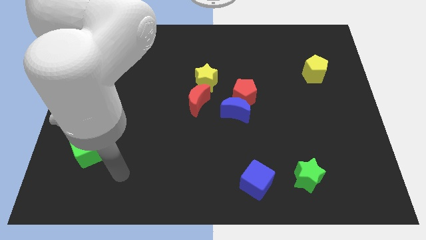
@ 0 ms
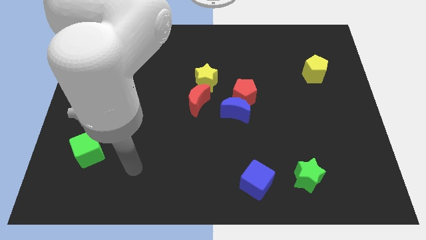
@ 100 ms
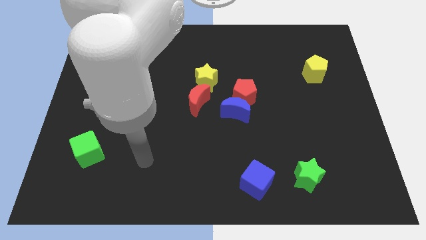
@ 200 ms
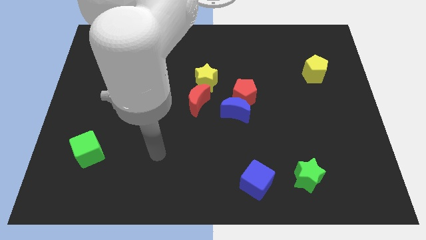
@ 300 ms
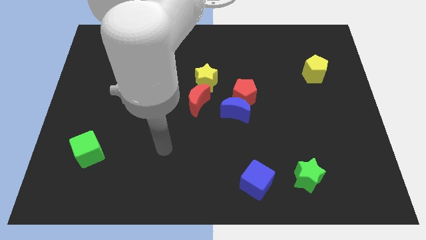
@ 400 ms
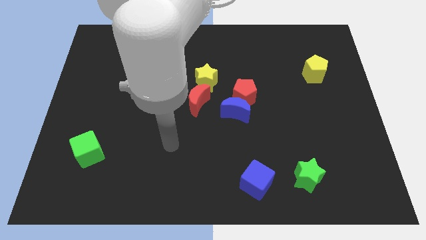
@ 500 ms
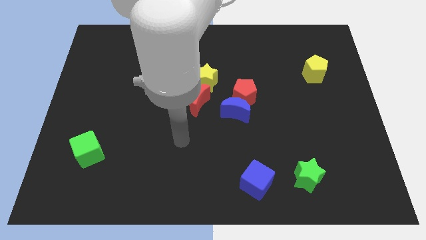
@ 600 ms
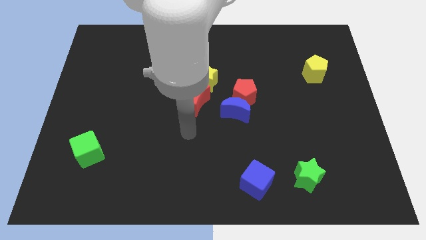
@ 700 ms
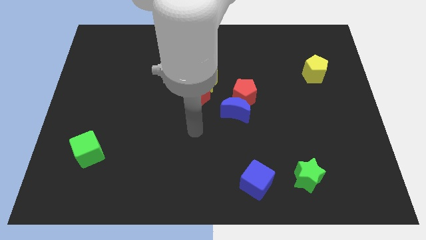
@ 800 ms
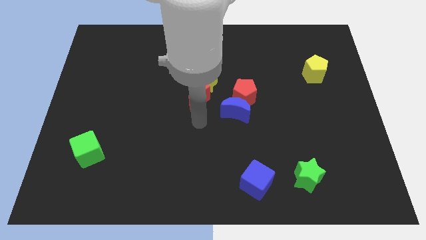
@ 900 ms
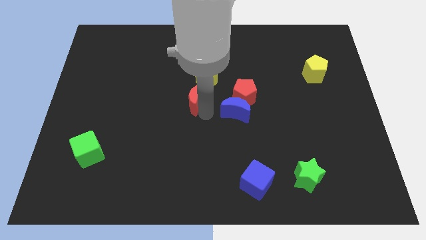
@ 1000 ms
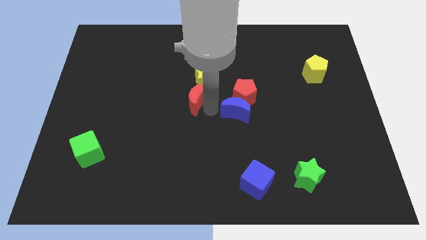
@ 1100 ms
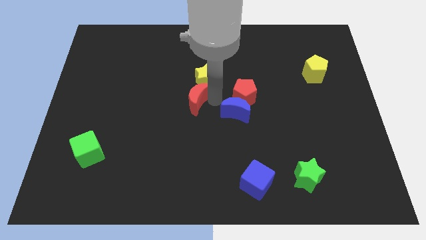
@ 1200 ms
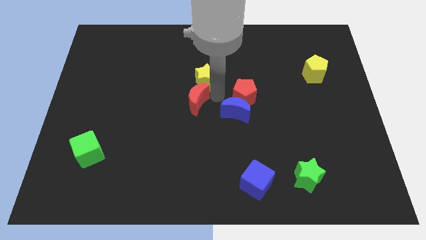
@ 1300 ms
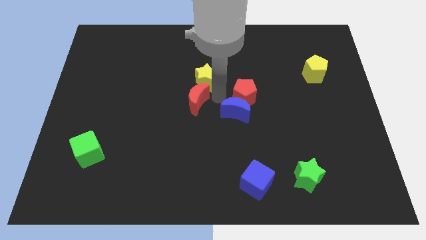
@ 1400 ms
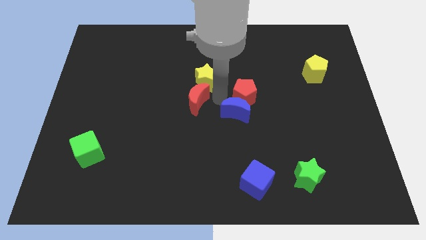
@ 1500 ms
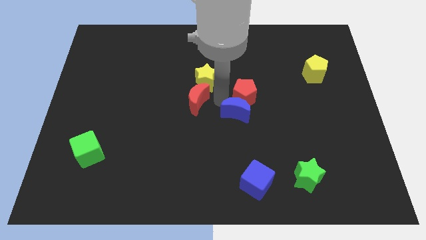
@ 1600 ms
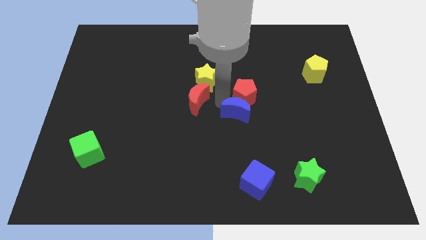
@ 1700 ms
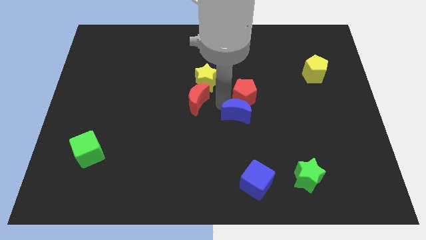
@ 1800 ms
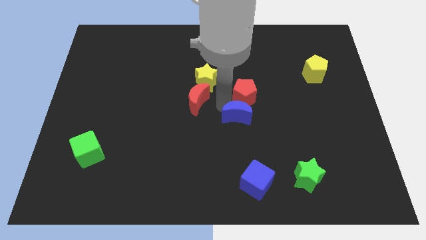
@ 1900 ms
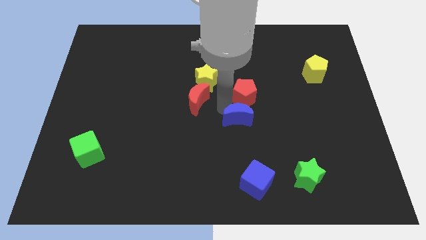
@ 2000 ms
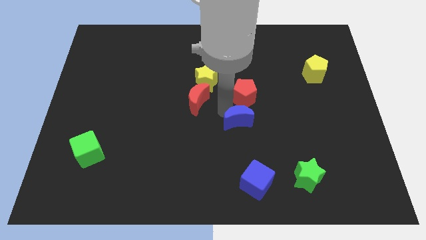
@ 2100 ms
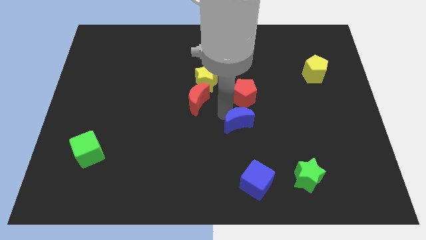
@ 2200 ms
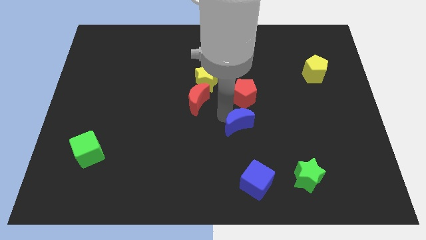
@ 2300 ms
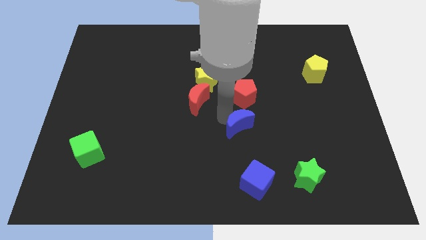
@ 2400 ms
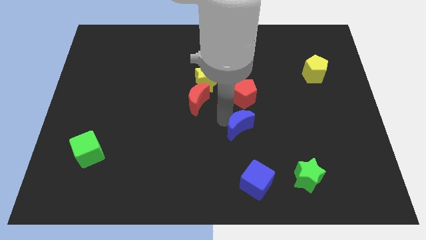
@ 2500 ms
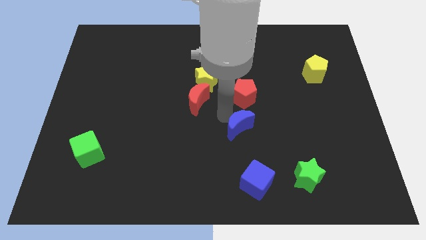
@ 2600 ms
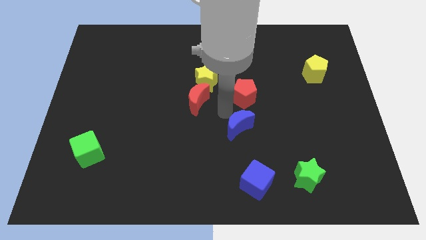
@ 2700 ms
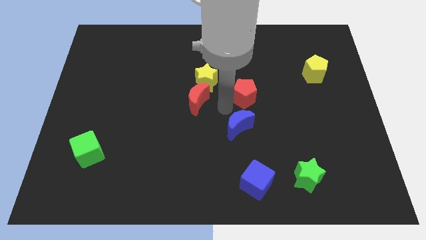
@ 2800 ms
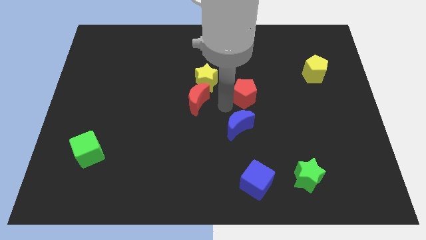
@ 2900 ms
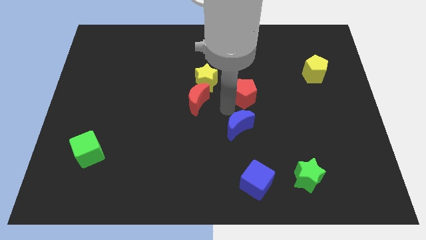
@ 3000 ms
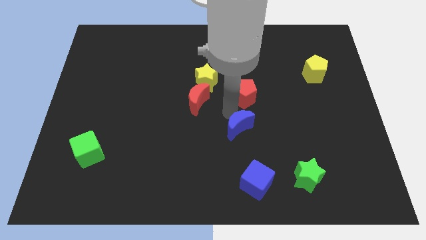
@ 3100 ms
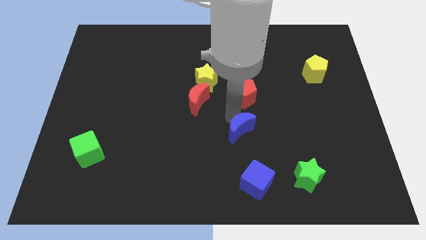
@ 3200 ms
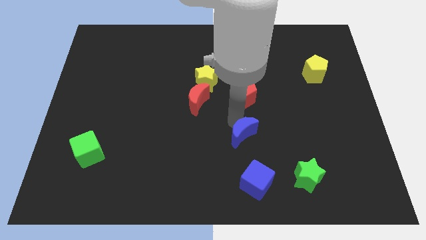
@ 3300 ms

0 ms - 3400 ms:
separate the blue moon from the red pentagon and red moon

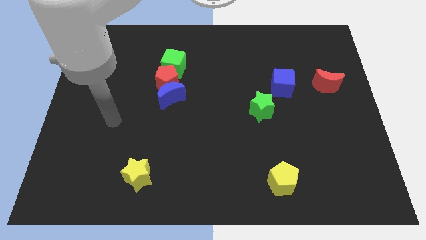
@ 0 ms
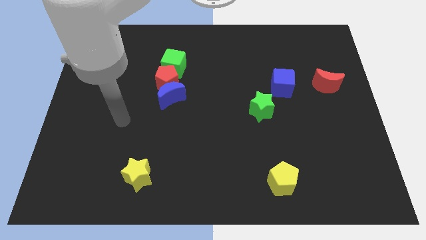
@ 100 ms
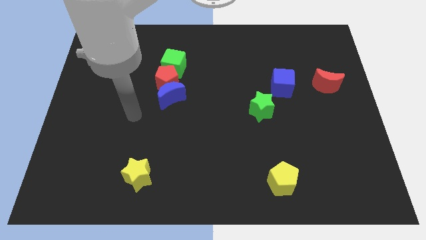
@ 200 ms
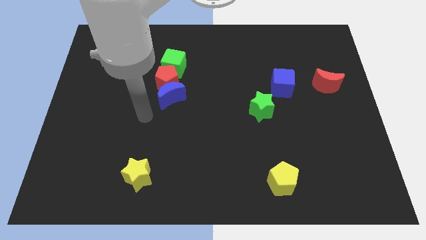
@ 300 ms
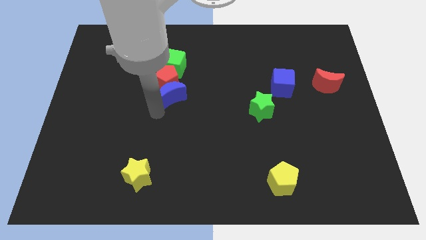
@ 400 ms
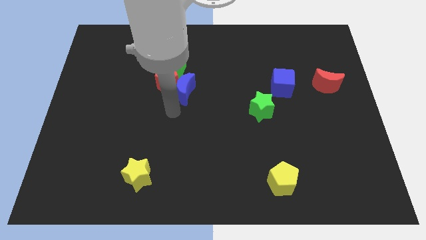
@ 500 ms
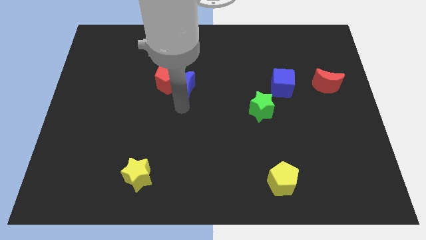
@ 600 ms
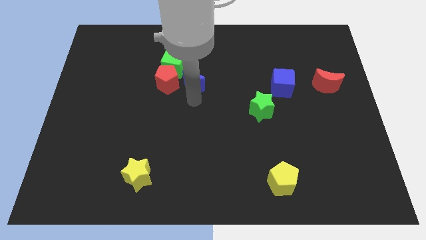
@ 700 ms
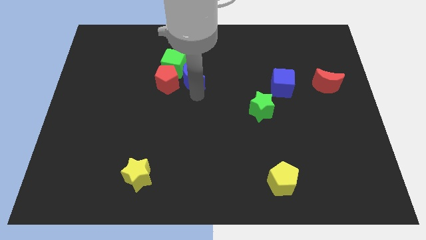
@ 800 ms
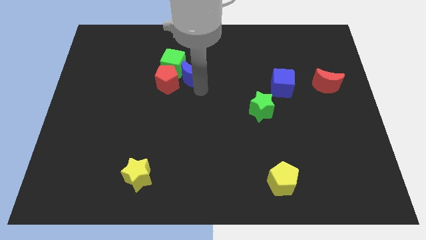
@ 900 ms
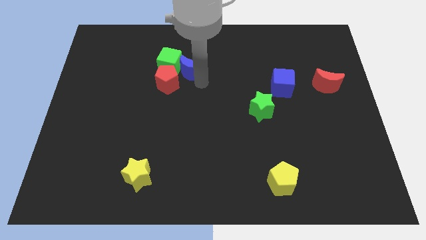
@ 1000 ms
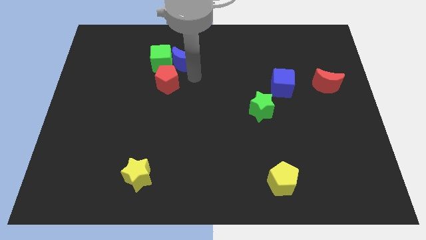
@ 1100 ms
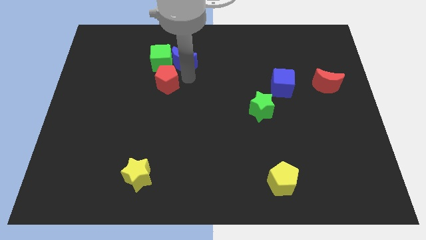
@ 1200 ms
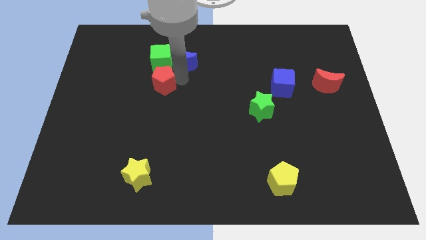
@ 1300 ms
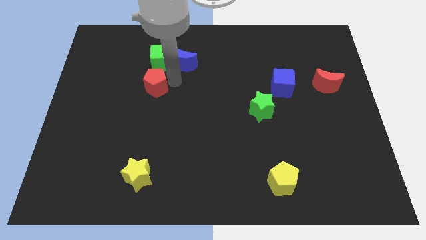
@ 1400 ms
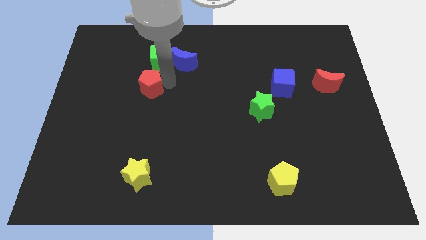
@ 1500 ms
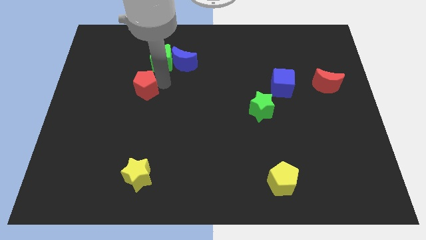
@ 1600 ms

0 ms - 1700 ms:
move the red pentagon away from the blue moon and green cube

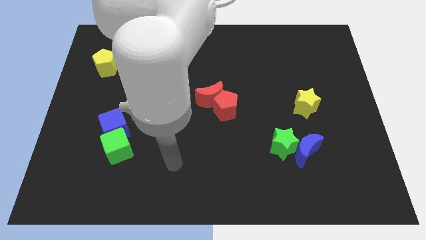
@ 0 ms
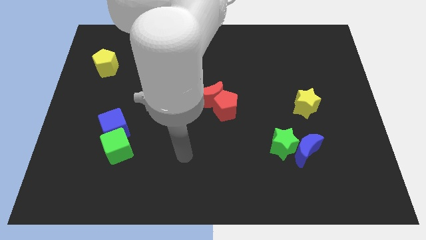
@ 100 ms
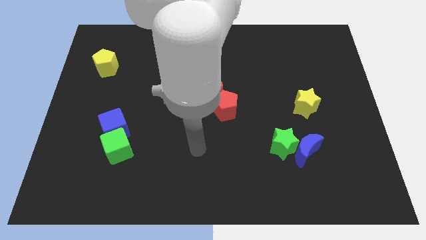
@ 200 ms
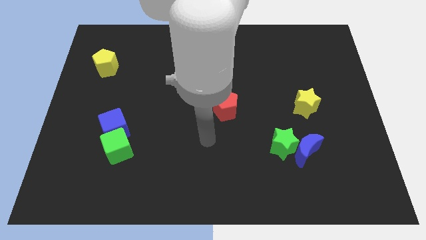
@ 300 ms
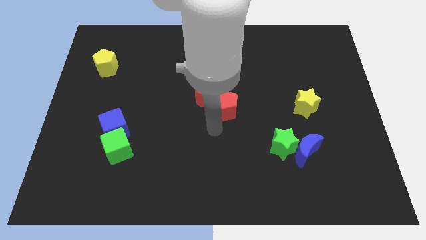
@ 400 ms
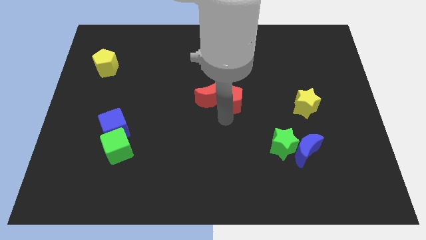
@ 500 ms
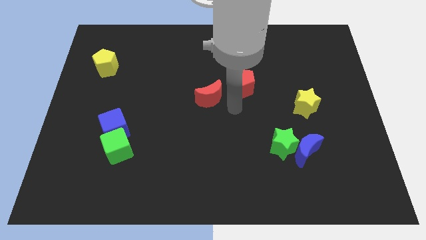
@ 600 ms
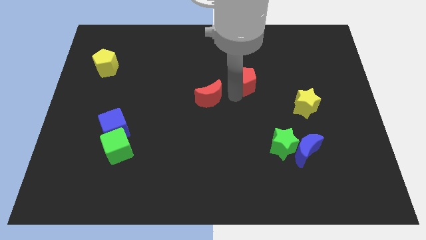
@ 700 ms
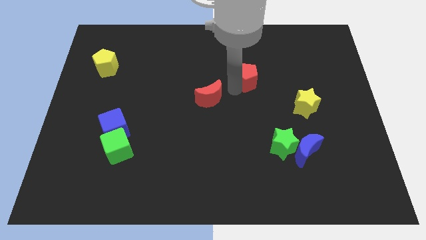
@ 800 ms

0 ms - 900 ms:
move the red moon away from the red pentagon

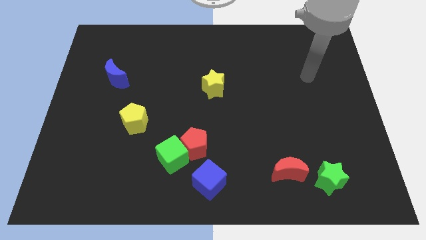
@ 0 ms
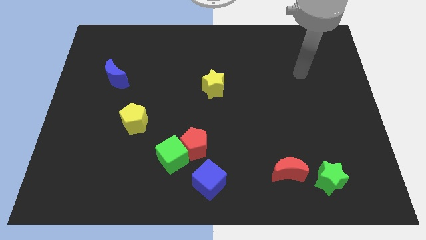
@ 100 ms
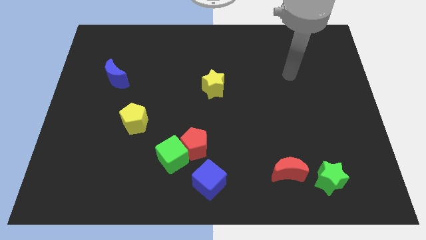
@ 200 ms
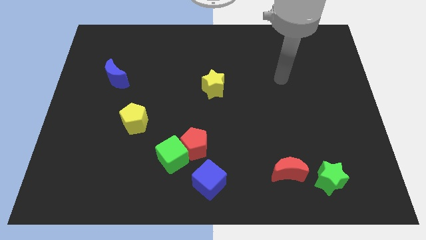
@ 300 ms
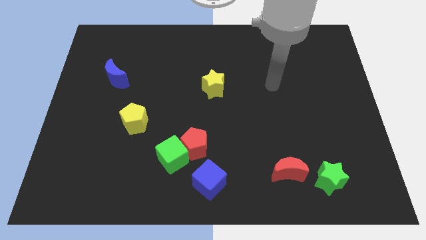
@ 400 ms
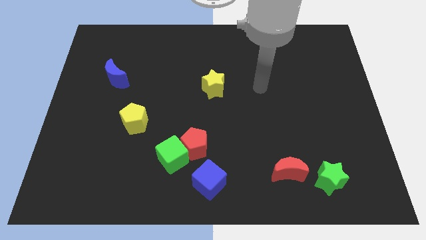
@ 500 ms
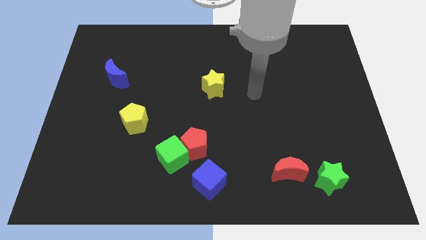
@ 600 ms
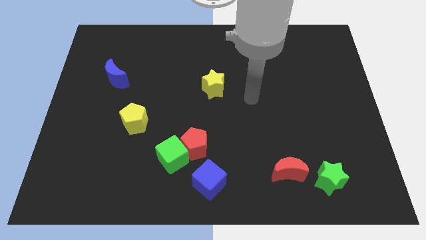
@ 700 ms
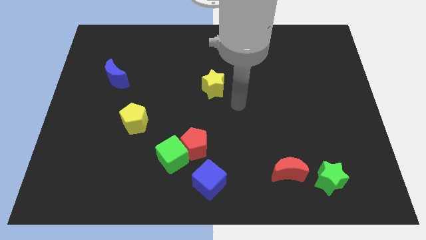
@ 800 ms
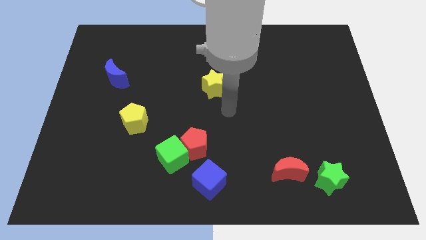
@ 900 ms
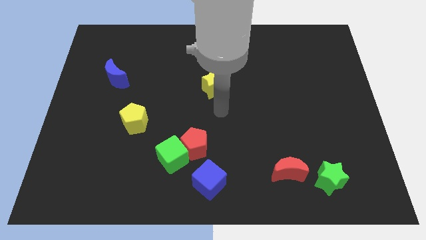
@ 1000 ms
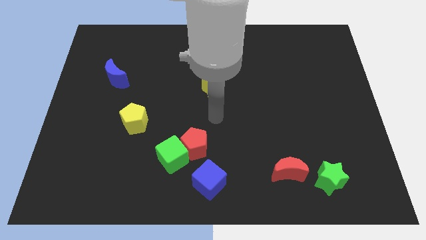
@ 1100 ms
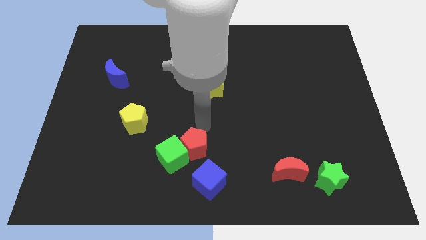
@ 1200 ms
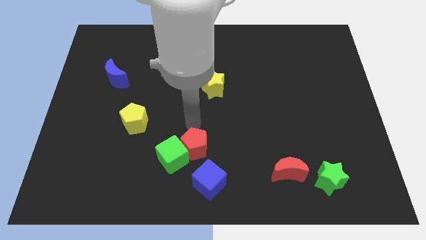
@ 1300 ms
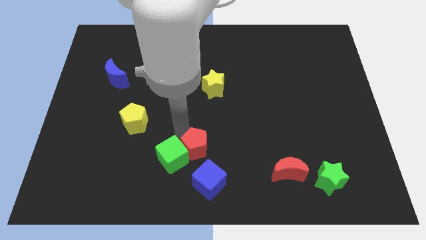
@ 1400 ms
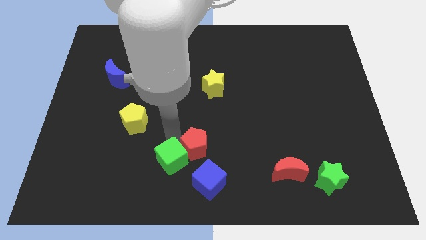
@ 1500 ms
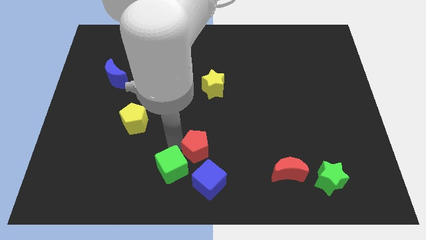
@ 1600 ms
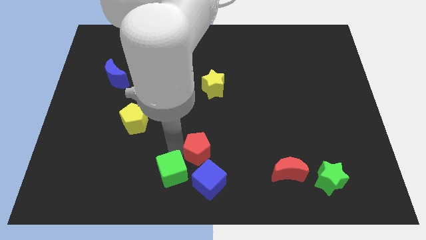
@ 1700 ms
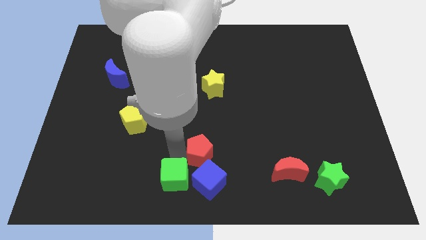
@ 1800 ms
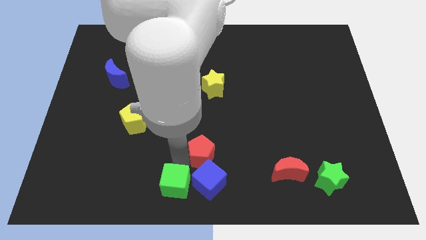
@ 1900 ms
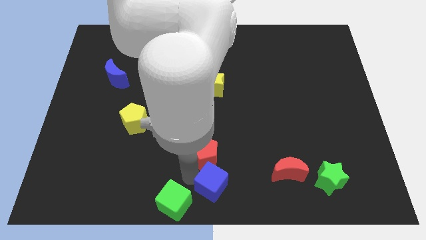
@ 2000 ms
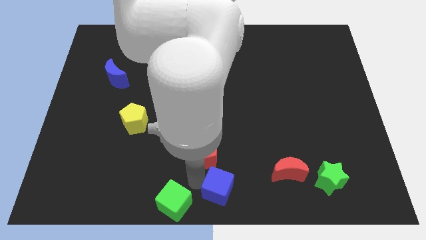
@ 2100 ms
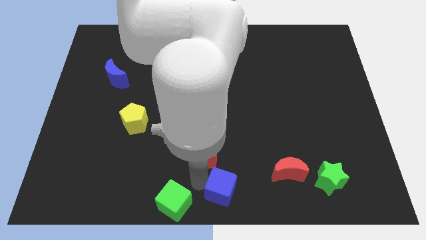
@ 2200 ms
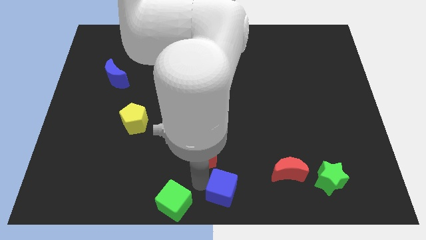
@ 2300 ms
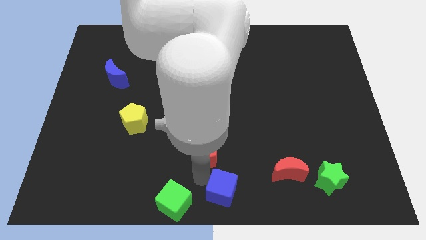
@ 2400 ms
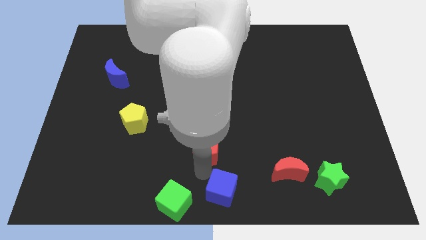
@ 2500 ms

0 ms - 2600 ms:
move the red pentagon away from the green cube and blue cube

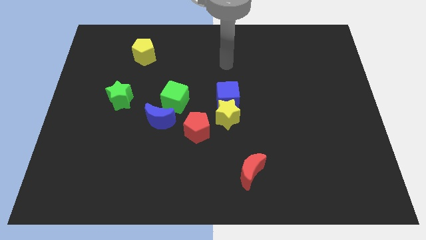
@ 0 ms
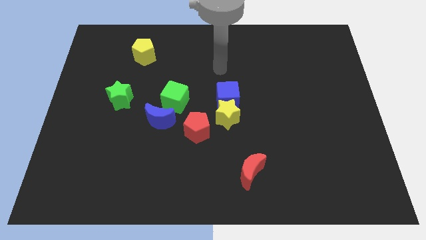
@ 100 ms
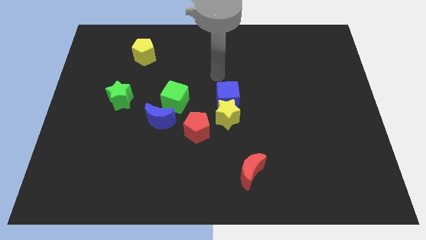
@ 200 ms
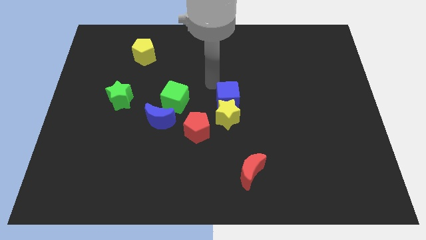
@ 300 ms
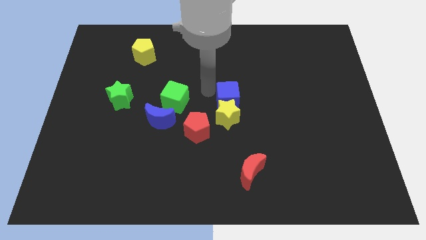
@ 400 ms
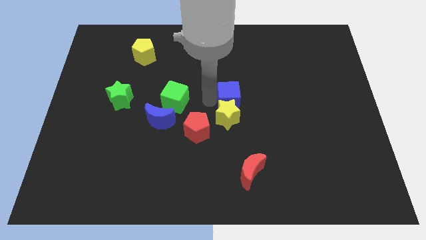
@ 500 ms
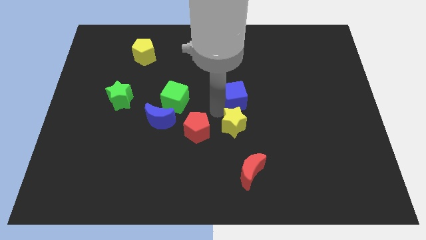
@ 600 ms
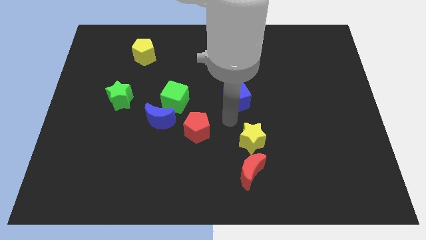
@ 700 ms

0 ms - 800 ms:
move the blue cube away from the yellow star
